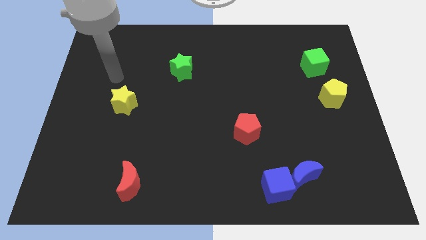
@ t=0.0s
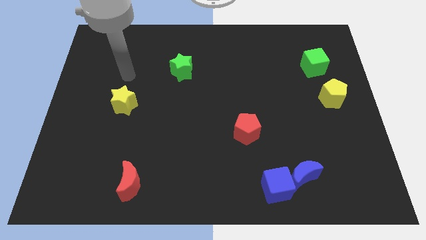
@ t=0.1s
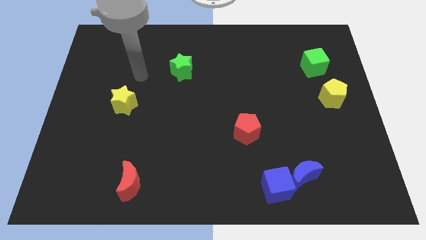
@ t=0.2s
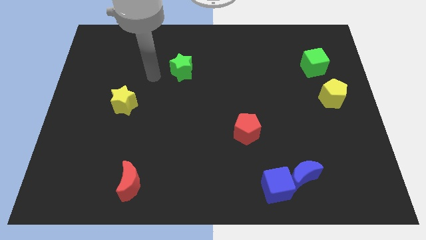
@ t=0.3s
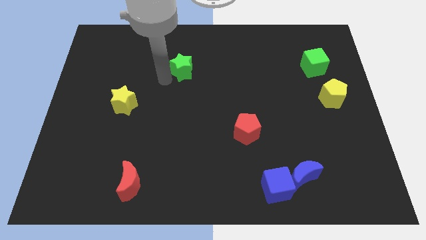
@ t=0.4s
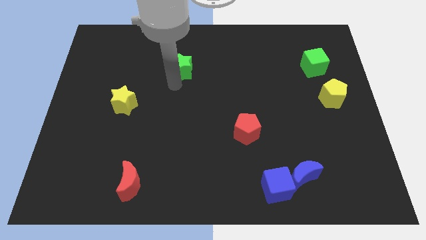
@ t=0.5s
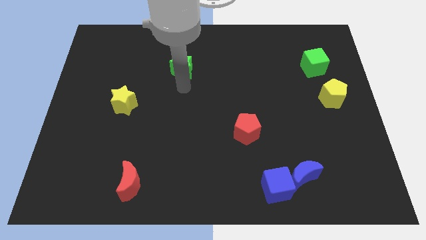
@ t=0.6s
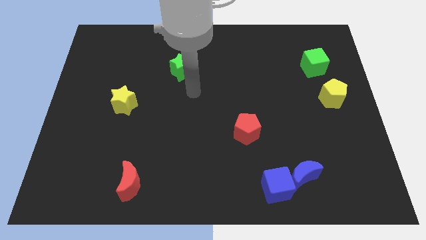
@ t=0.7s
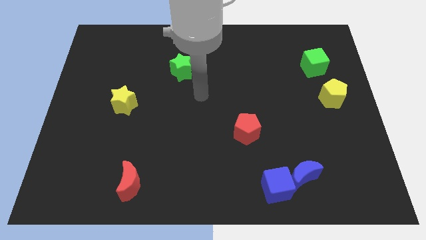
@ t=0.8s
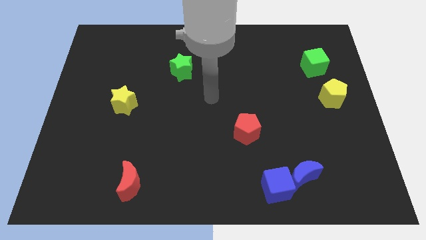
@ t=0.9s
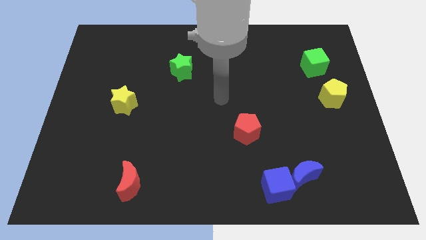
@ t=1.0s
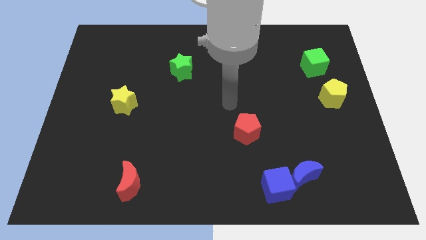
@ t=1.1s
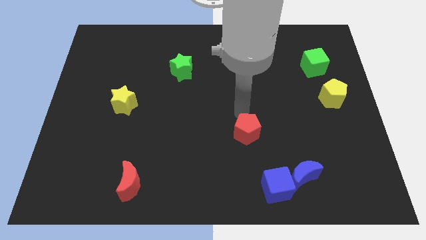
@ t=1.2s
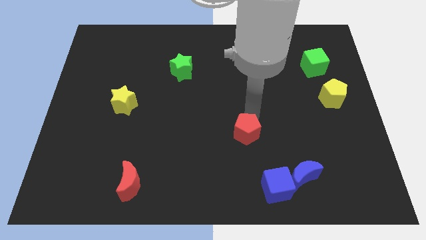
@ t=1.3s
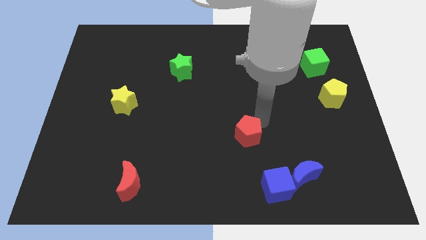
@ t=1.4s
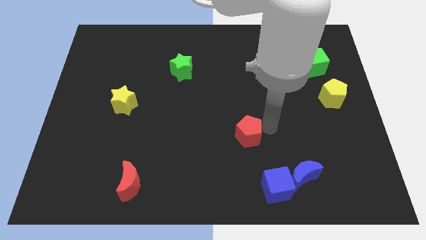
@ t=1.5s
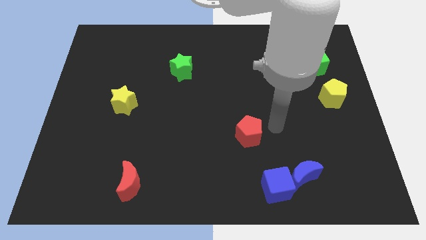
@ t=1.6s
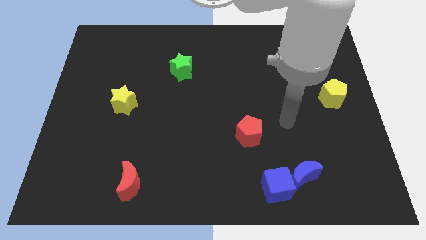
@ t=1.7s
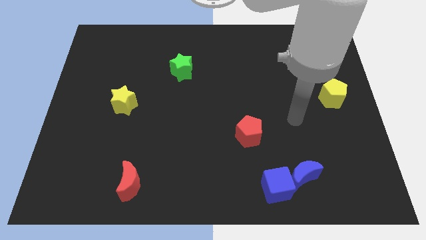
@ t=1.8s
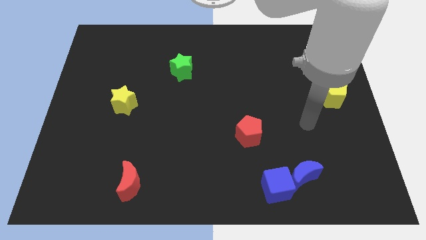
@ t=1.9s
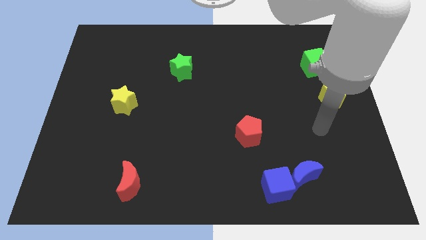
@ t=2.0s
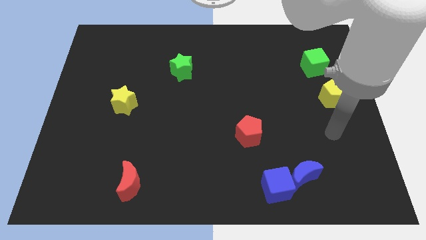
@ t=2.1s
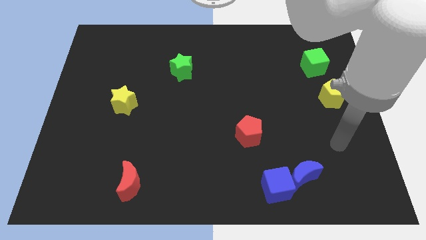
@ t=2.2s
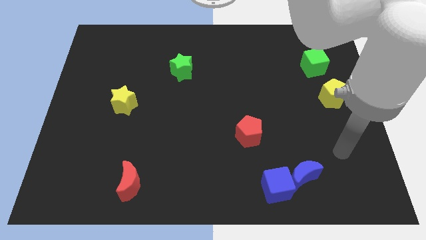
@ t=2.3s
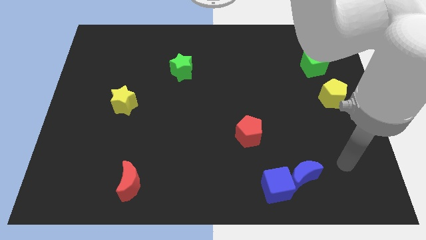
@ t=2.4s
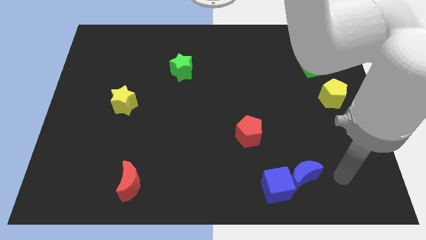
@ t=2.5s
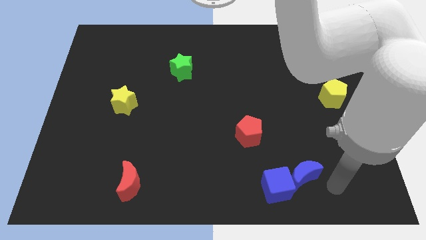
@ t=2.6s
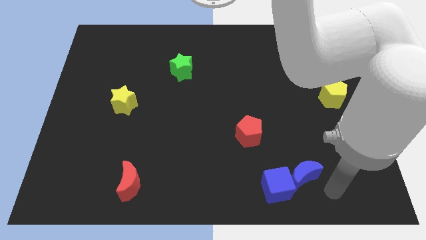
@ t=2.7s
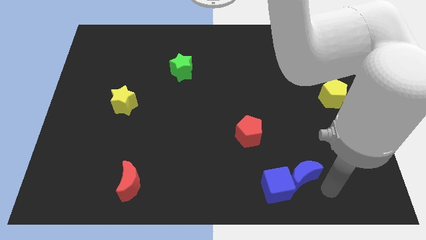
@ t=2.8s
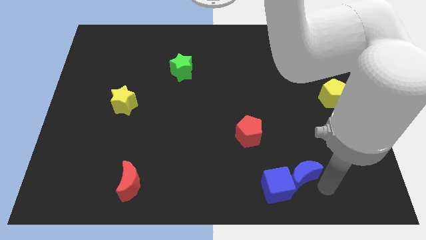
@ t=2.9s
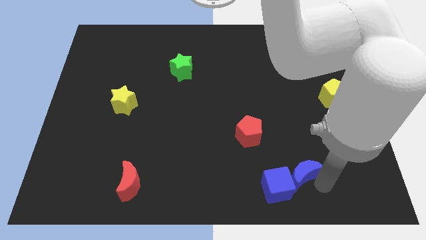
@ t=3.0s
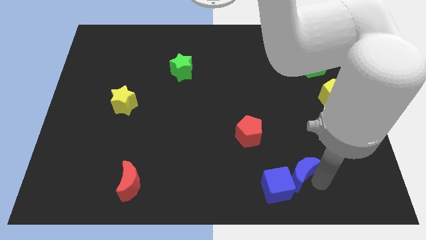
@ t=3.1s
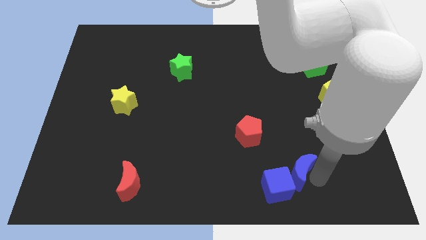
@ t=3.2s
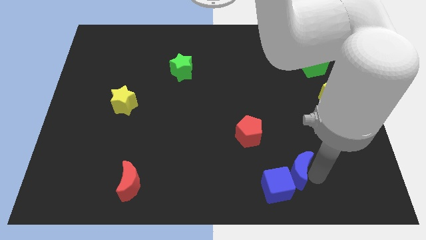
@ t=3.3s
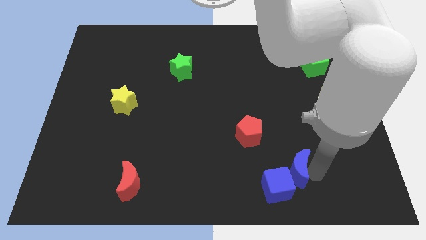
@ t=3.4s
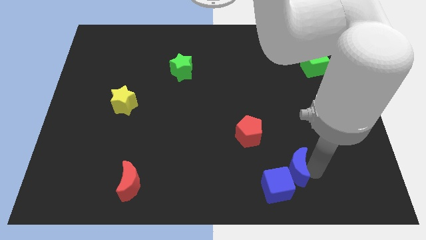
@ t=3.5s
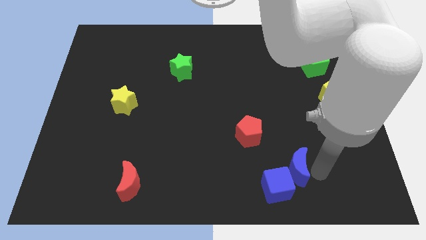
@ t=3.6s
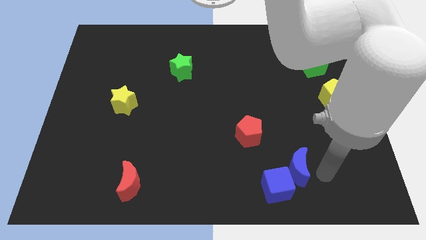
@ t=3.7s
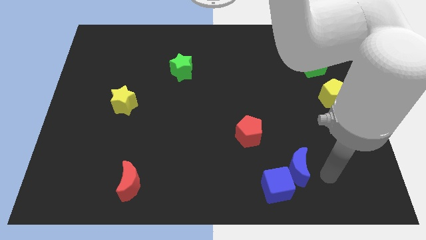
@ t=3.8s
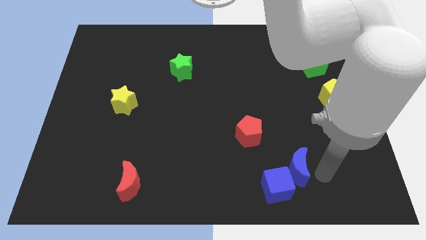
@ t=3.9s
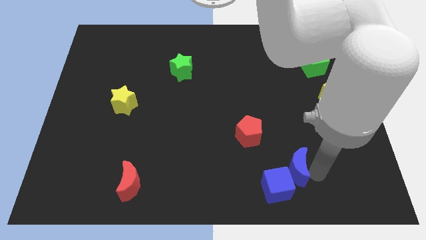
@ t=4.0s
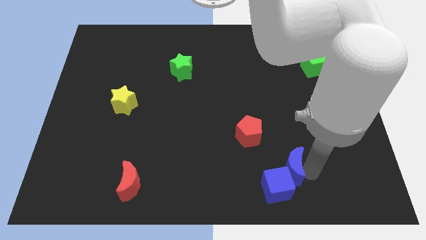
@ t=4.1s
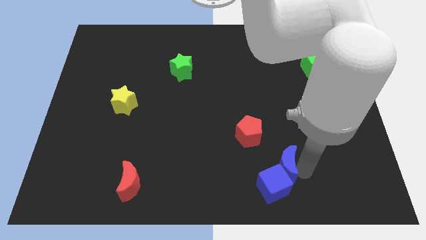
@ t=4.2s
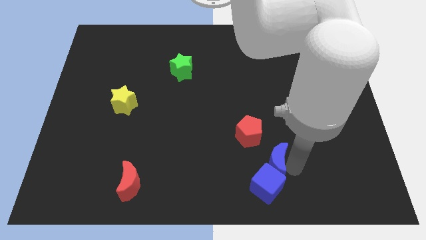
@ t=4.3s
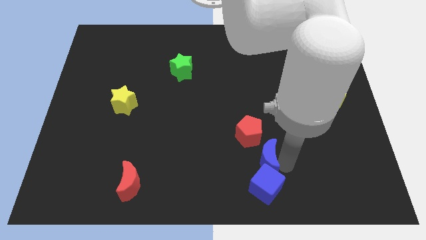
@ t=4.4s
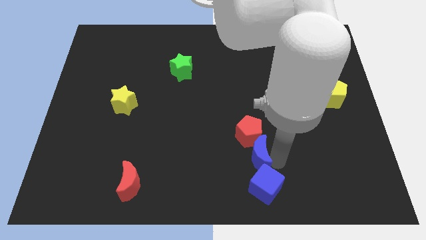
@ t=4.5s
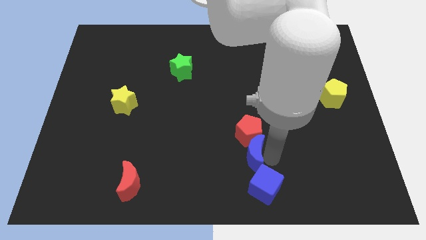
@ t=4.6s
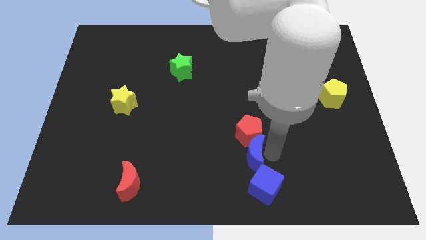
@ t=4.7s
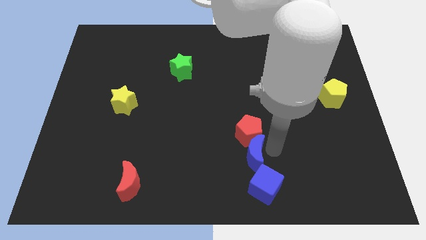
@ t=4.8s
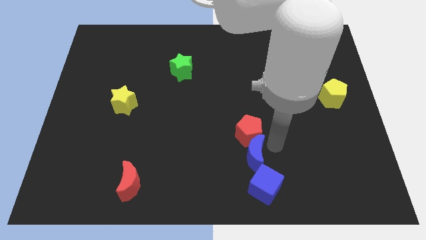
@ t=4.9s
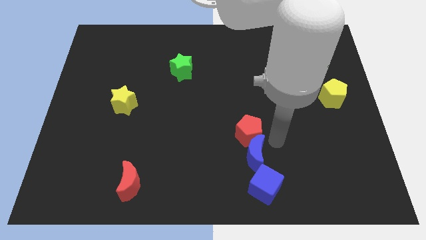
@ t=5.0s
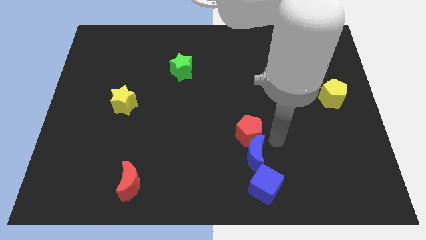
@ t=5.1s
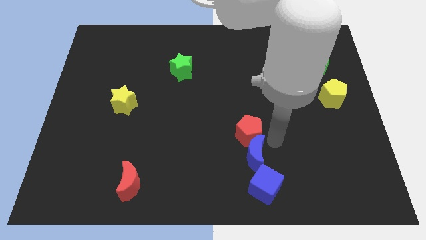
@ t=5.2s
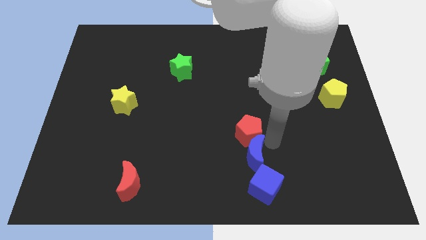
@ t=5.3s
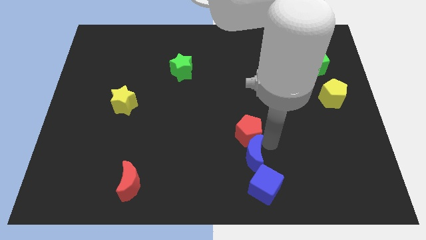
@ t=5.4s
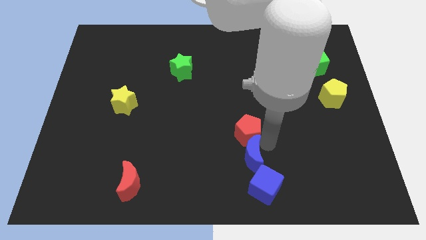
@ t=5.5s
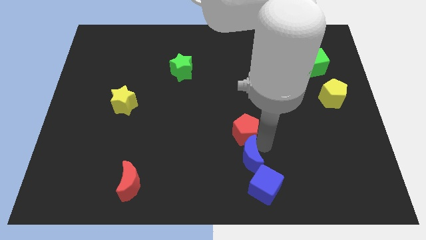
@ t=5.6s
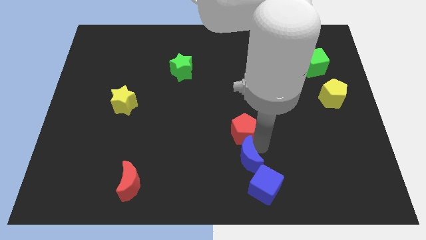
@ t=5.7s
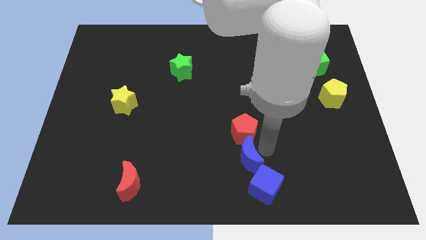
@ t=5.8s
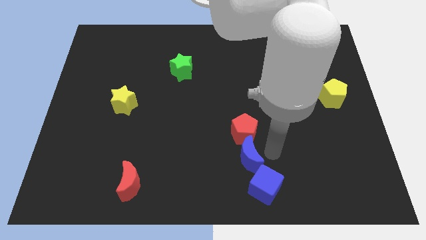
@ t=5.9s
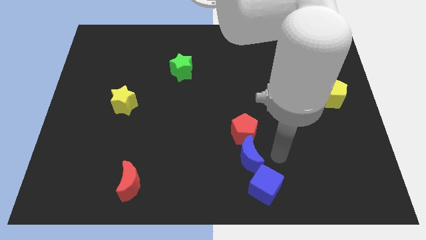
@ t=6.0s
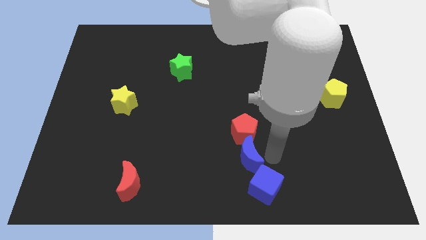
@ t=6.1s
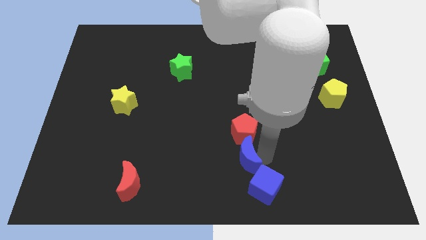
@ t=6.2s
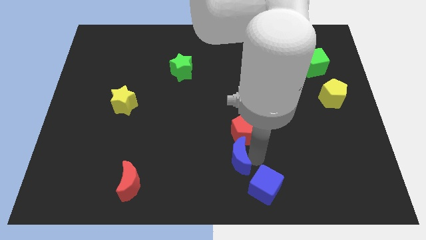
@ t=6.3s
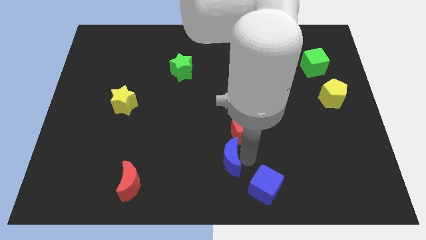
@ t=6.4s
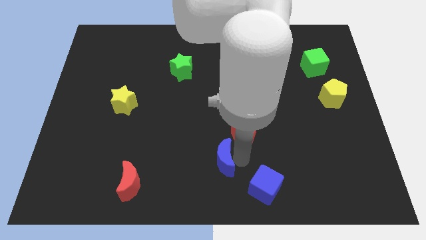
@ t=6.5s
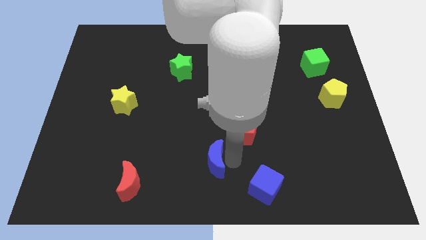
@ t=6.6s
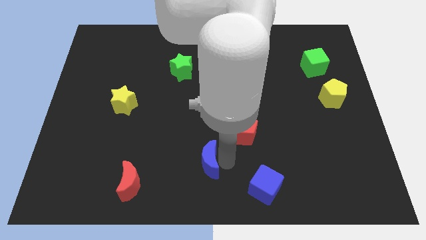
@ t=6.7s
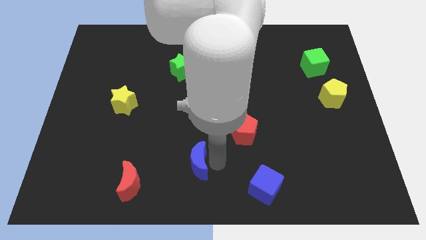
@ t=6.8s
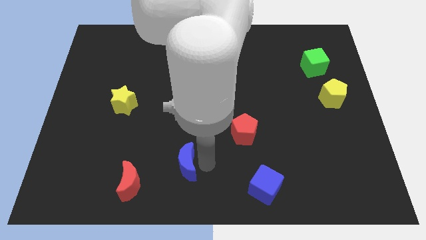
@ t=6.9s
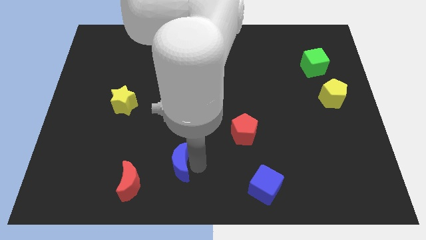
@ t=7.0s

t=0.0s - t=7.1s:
put the blue moon diagonally up and to the right of the red moon

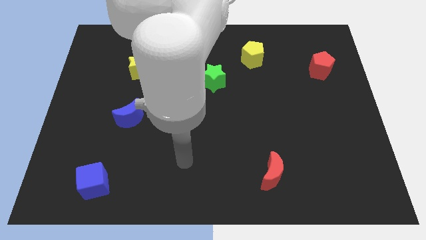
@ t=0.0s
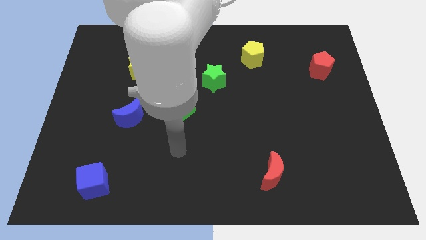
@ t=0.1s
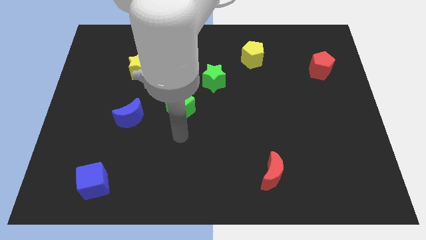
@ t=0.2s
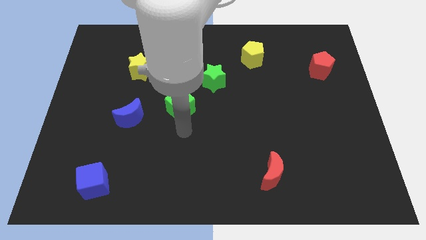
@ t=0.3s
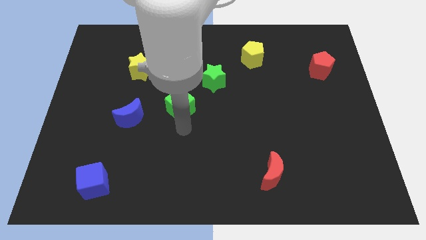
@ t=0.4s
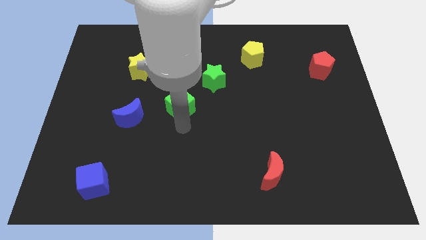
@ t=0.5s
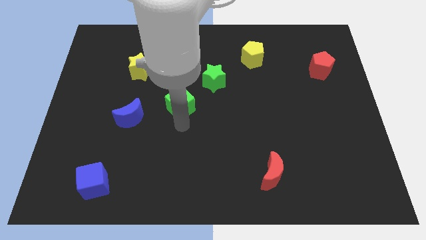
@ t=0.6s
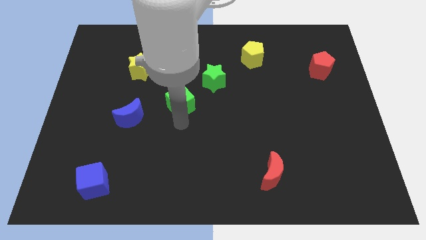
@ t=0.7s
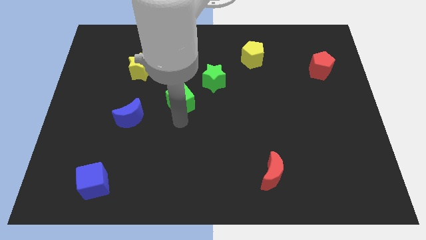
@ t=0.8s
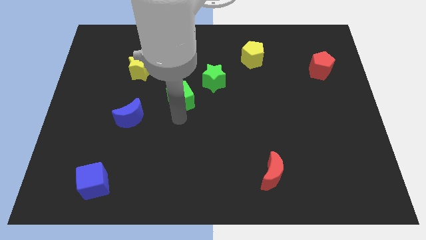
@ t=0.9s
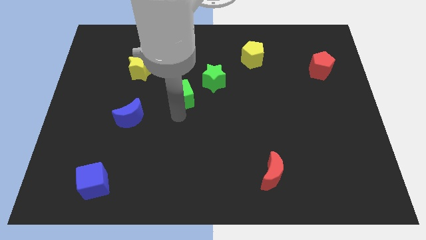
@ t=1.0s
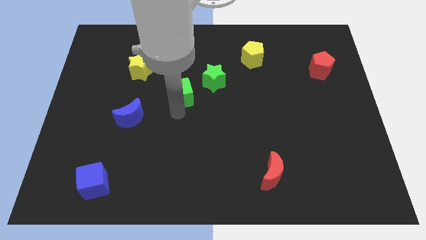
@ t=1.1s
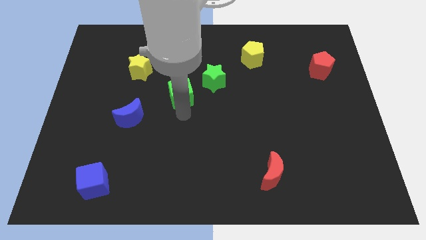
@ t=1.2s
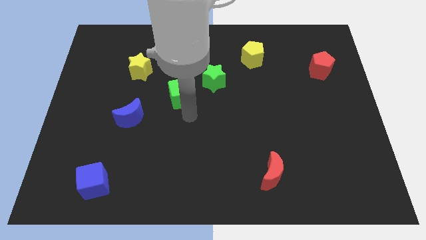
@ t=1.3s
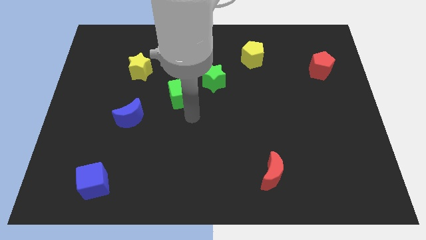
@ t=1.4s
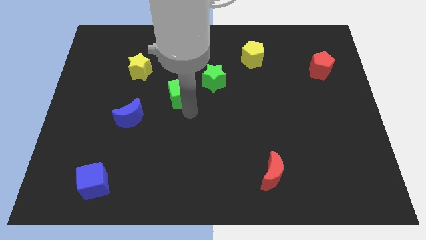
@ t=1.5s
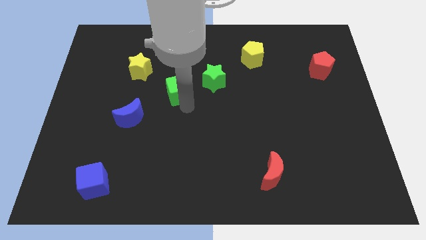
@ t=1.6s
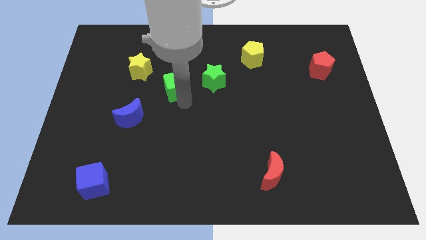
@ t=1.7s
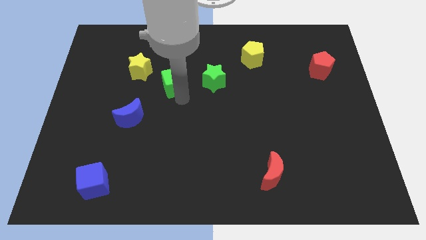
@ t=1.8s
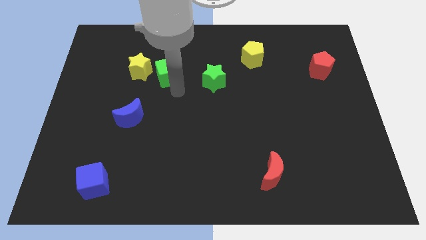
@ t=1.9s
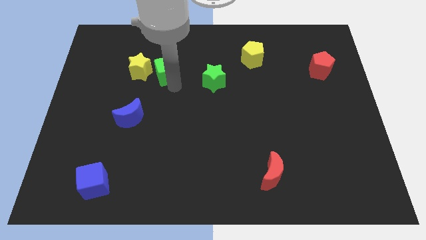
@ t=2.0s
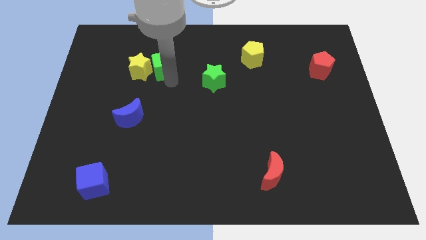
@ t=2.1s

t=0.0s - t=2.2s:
push the green cube diagonally up and to the right of the yellow star
